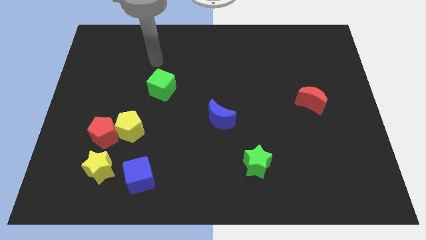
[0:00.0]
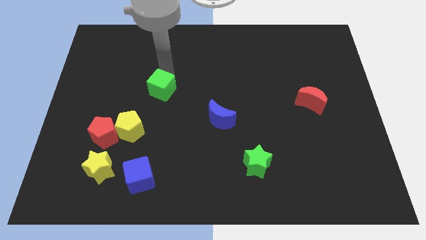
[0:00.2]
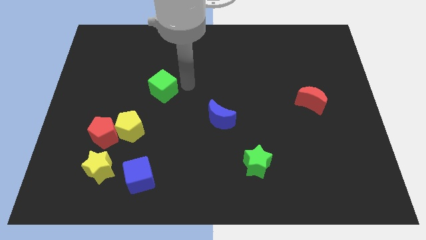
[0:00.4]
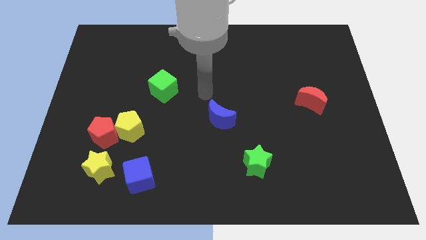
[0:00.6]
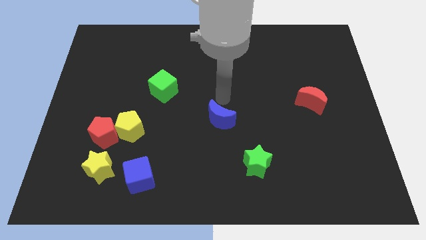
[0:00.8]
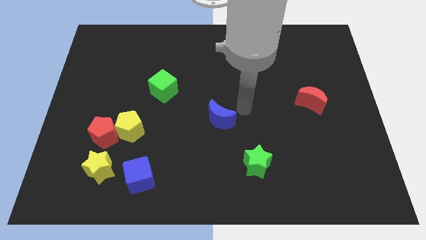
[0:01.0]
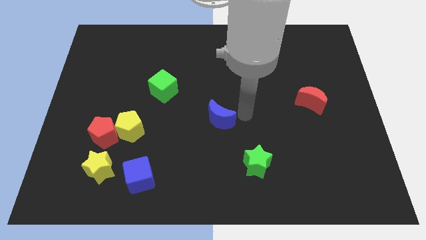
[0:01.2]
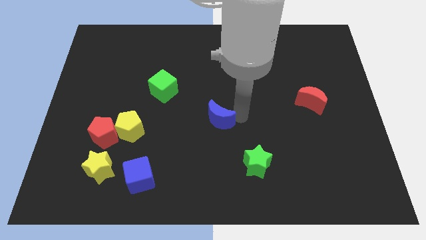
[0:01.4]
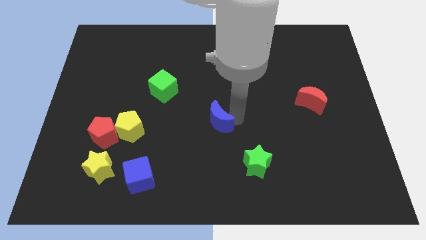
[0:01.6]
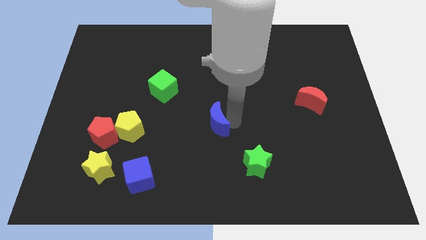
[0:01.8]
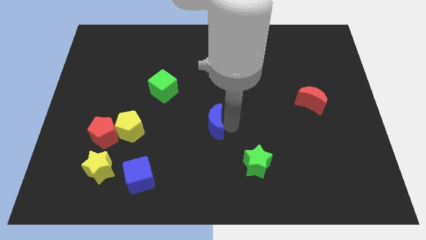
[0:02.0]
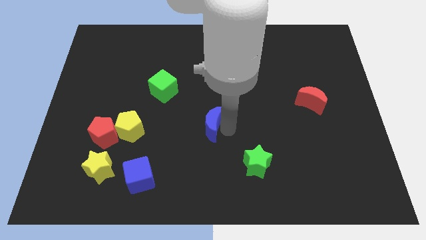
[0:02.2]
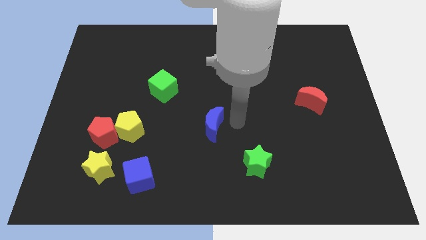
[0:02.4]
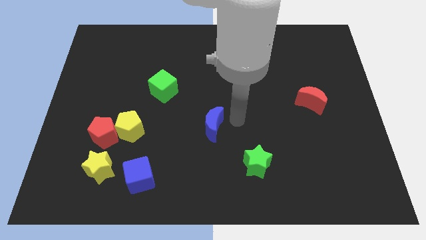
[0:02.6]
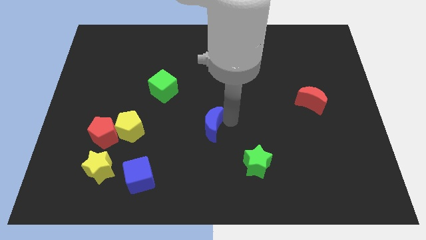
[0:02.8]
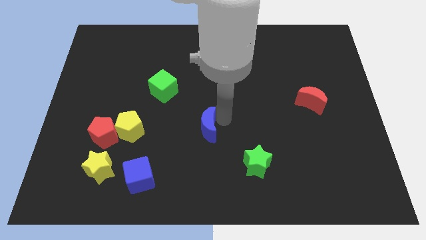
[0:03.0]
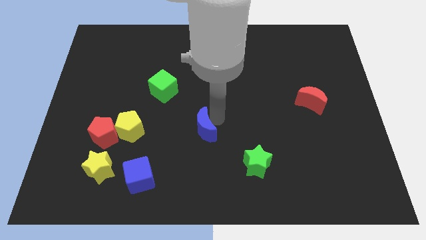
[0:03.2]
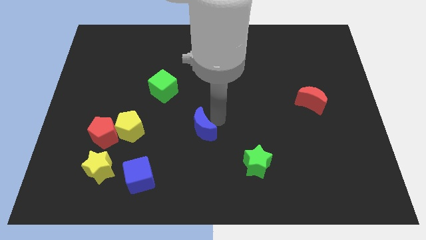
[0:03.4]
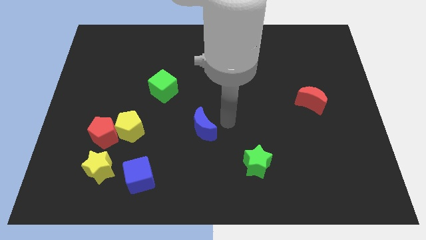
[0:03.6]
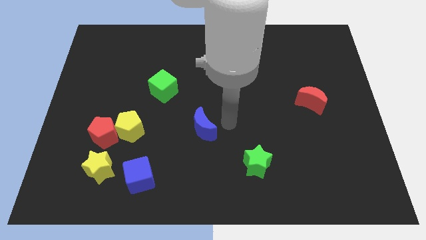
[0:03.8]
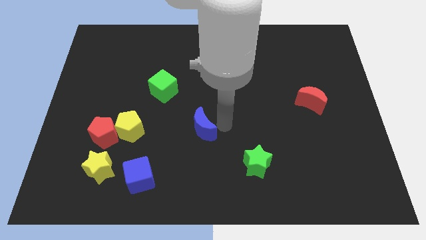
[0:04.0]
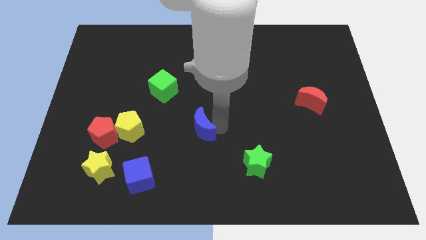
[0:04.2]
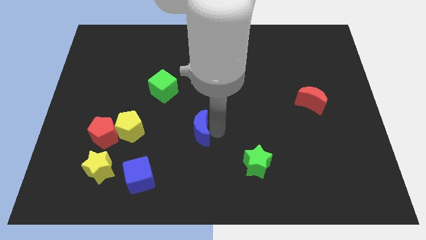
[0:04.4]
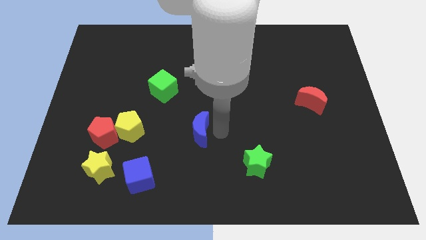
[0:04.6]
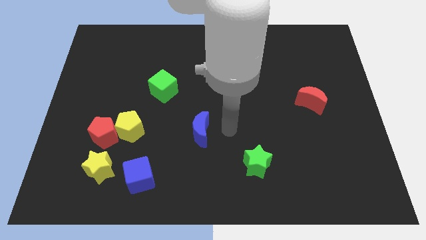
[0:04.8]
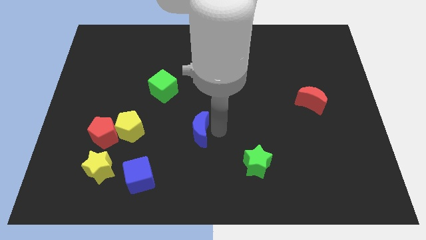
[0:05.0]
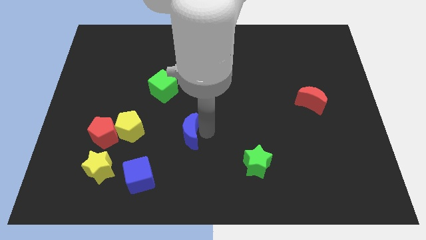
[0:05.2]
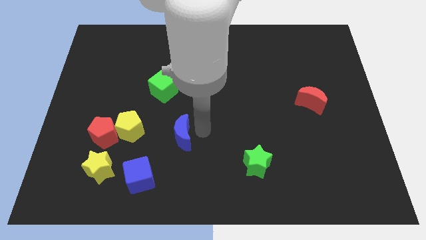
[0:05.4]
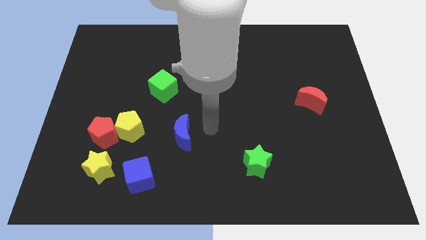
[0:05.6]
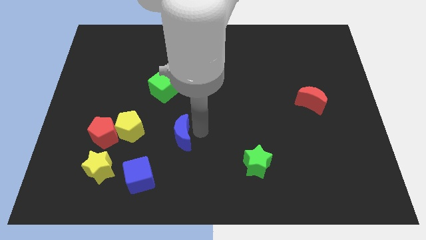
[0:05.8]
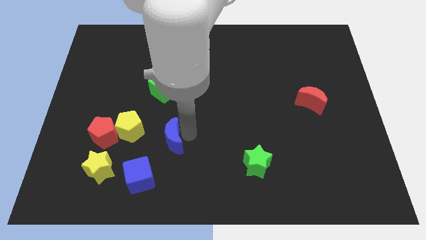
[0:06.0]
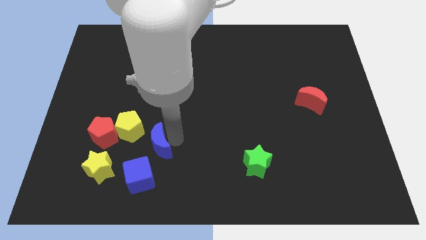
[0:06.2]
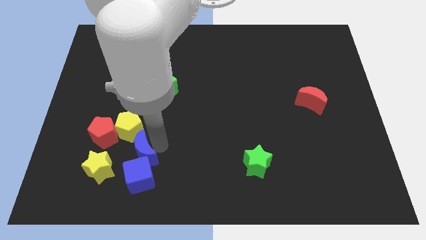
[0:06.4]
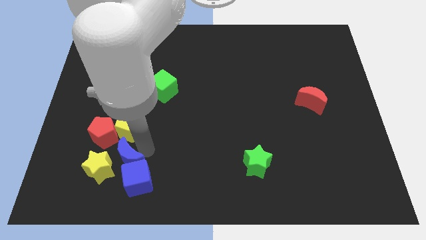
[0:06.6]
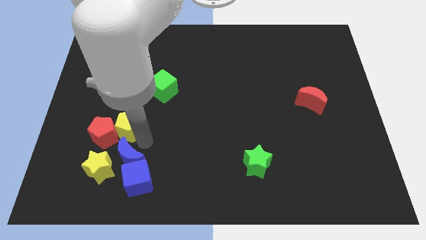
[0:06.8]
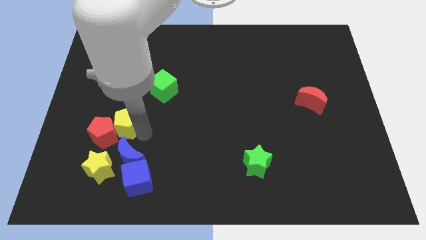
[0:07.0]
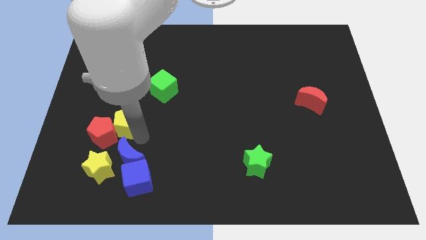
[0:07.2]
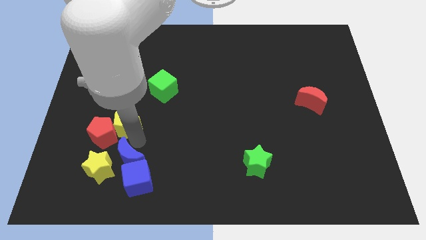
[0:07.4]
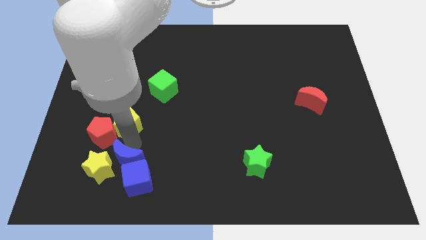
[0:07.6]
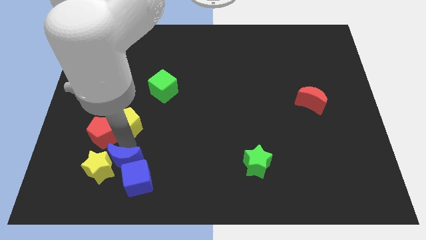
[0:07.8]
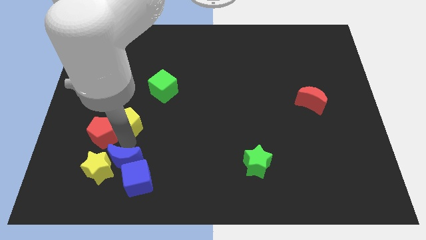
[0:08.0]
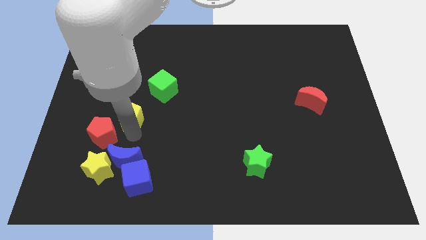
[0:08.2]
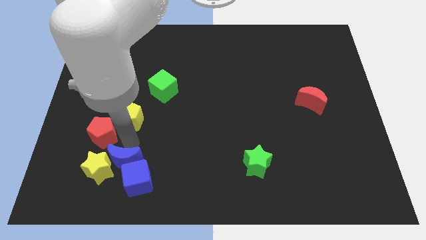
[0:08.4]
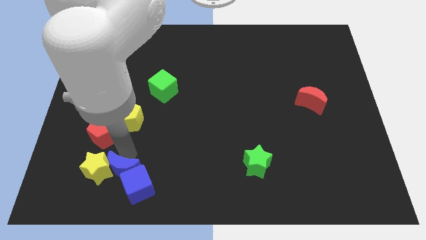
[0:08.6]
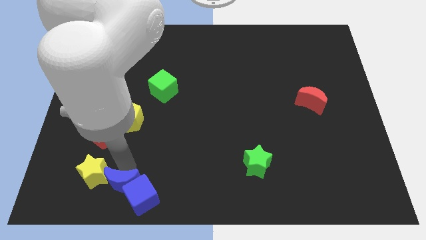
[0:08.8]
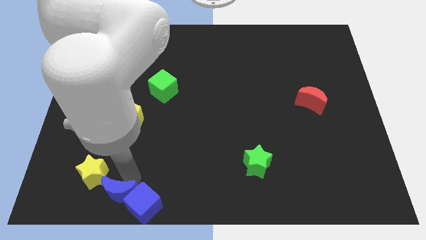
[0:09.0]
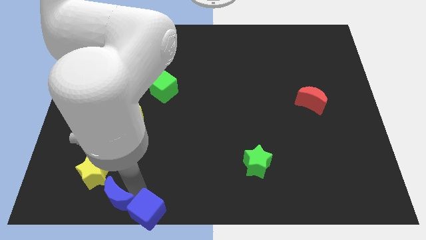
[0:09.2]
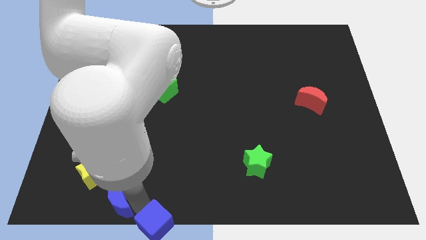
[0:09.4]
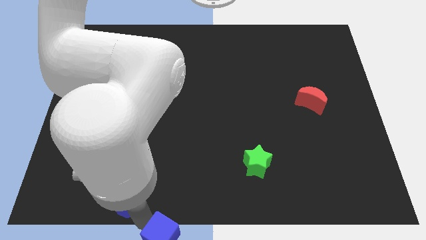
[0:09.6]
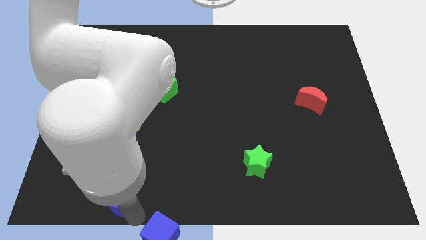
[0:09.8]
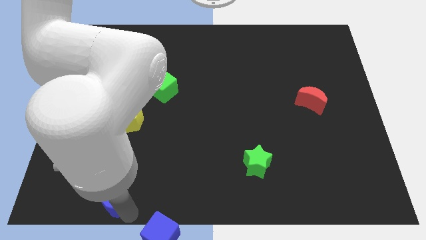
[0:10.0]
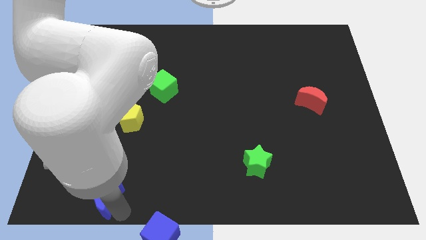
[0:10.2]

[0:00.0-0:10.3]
push the blue moon to the bottom of the red pentagon

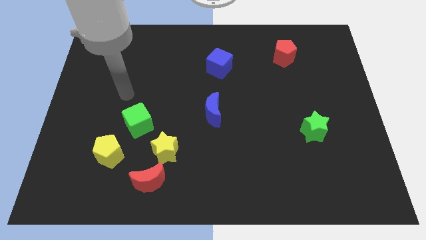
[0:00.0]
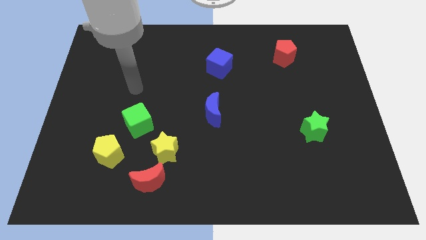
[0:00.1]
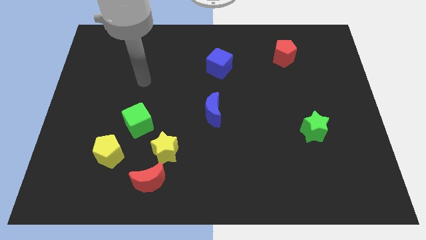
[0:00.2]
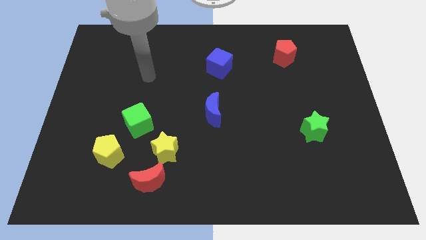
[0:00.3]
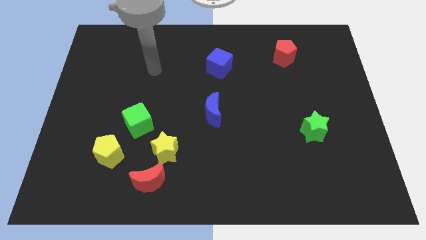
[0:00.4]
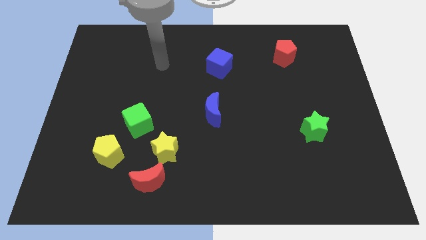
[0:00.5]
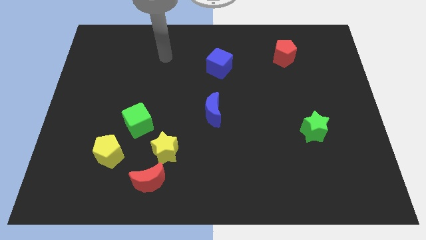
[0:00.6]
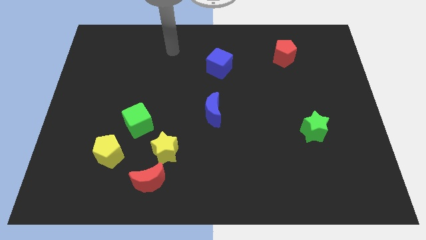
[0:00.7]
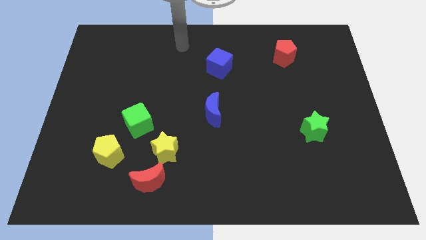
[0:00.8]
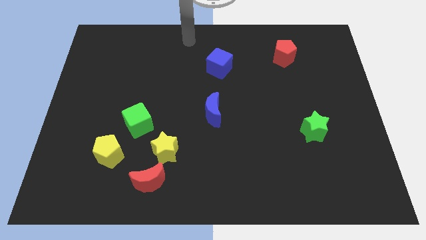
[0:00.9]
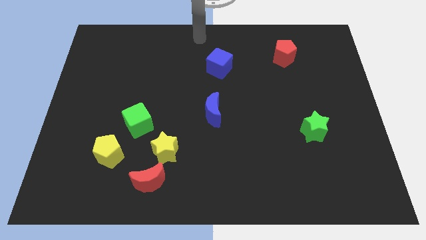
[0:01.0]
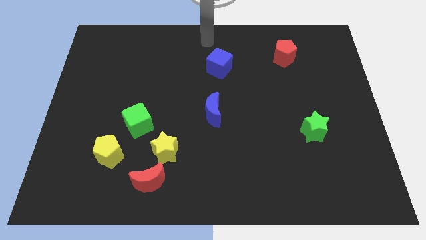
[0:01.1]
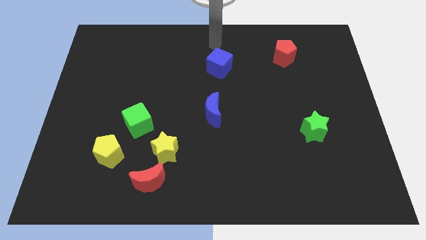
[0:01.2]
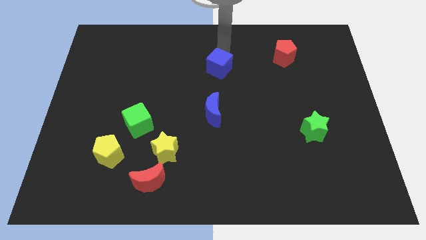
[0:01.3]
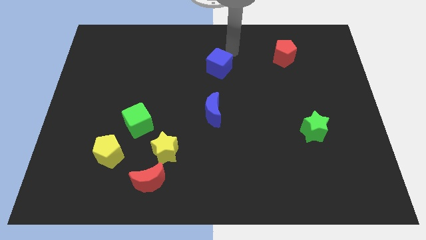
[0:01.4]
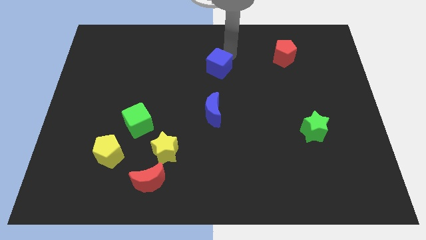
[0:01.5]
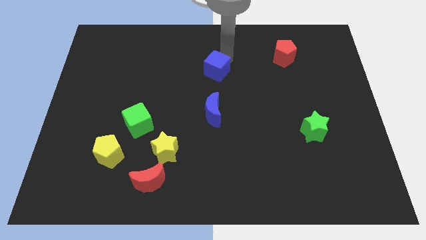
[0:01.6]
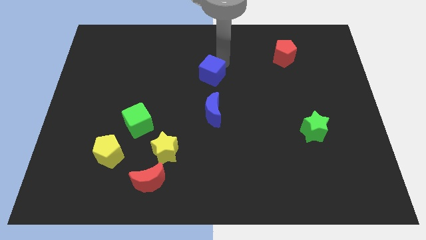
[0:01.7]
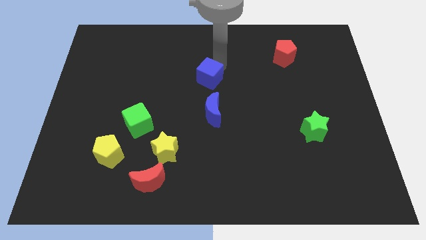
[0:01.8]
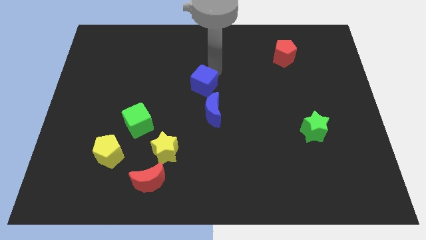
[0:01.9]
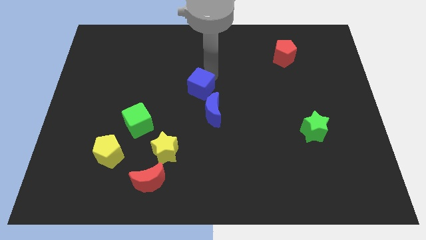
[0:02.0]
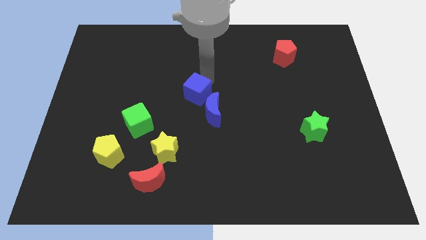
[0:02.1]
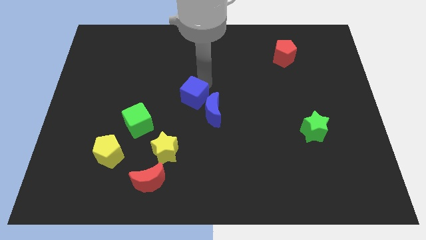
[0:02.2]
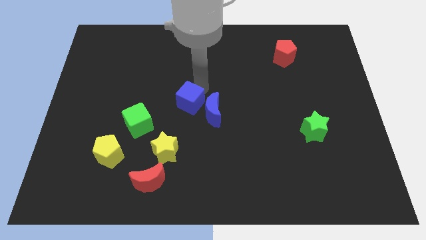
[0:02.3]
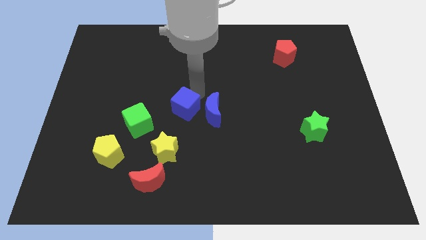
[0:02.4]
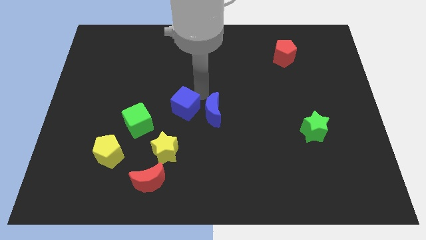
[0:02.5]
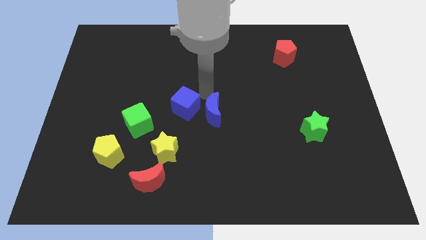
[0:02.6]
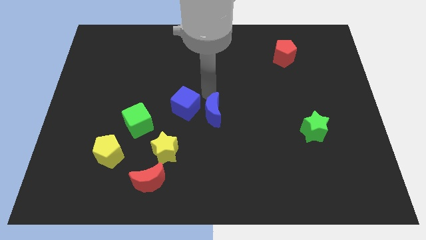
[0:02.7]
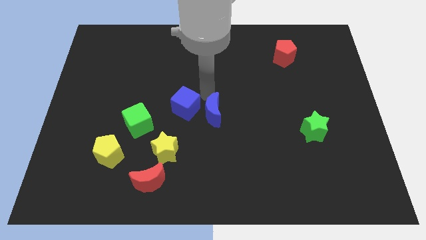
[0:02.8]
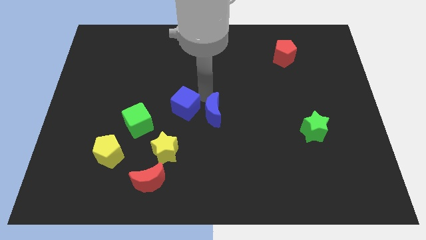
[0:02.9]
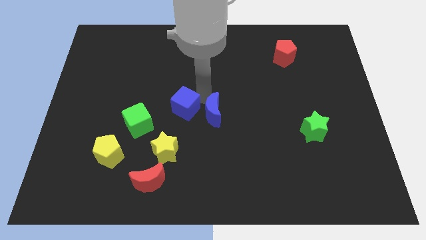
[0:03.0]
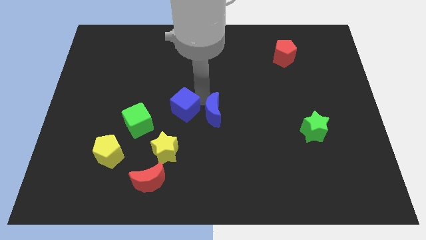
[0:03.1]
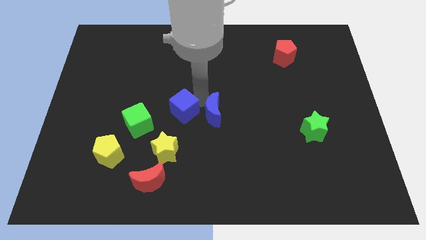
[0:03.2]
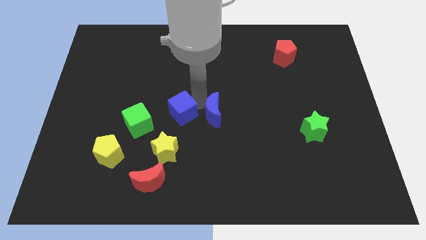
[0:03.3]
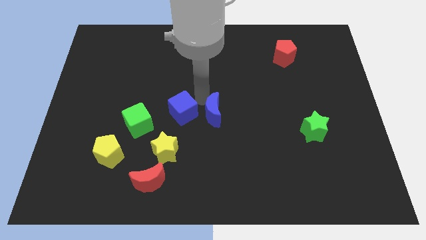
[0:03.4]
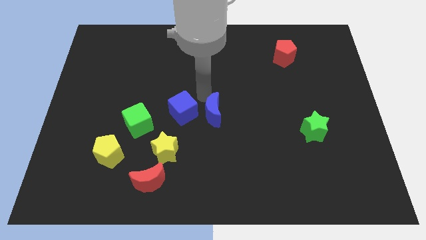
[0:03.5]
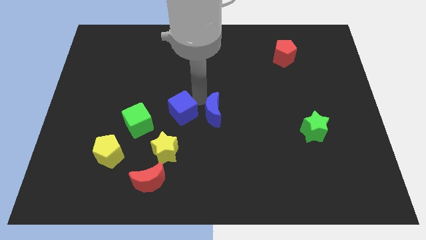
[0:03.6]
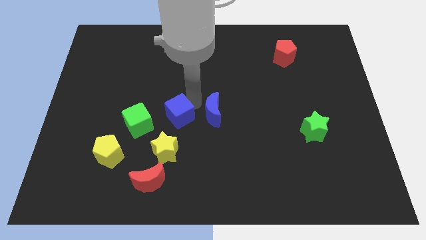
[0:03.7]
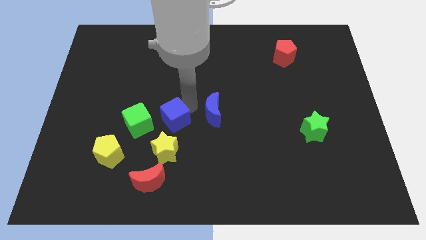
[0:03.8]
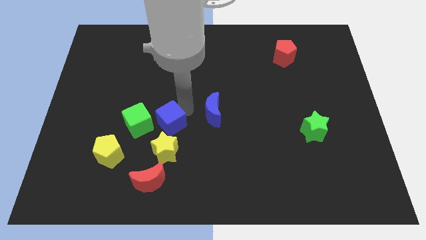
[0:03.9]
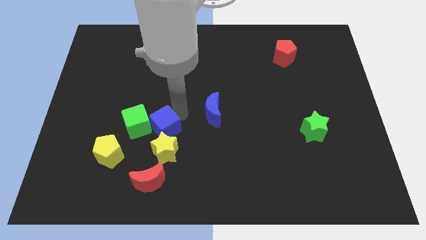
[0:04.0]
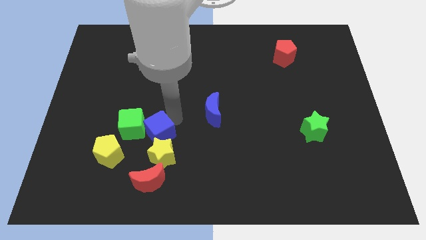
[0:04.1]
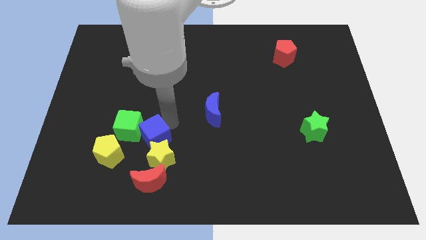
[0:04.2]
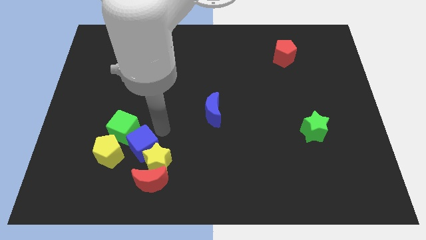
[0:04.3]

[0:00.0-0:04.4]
slide the blue cube to the bottom side of the green cube
